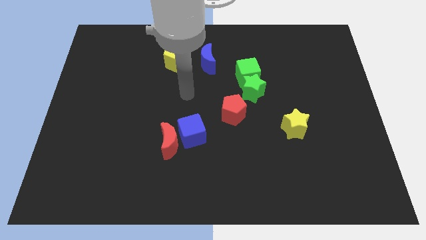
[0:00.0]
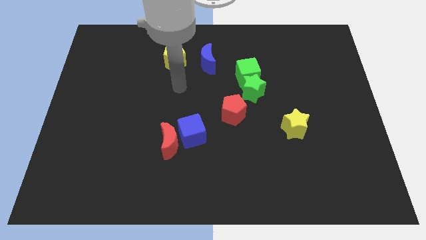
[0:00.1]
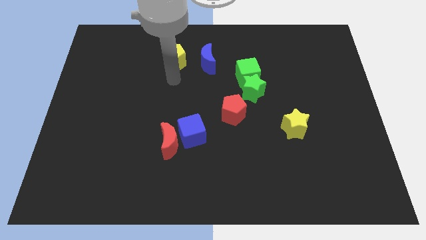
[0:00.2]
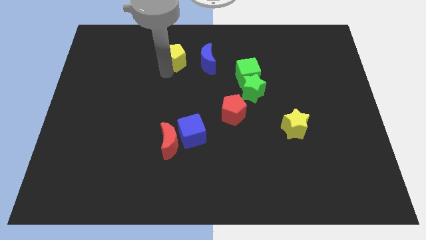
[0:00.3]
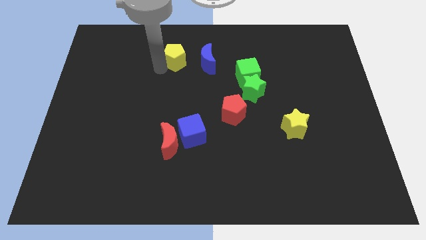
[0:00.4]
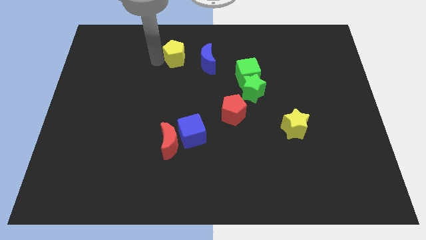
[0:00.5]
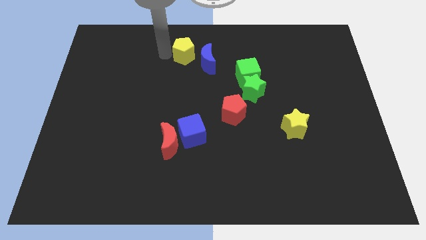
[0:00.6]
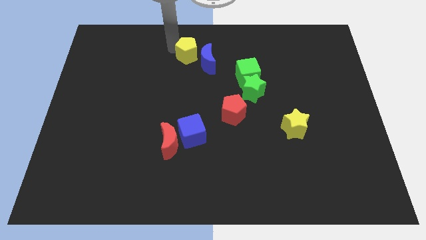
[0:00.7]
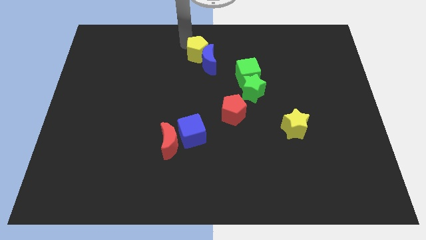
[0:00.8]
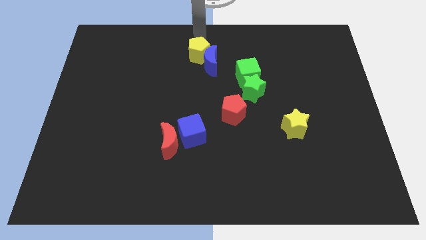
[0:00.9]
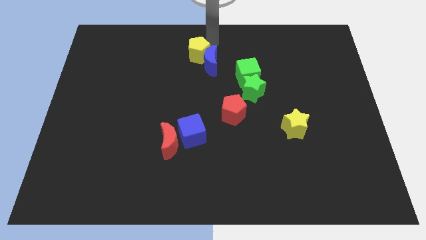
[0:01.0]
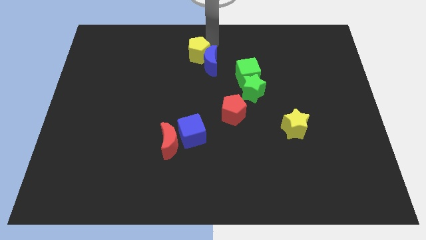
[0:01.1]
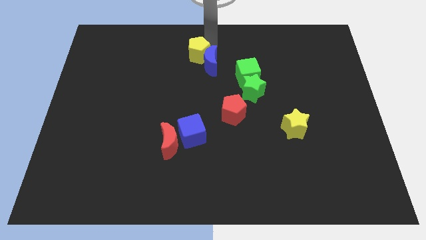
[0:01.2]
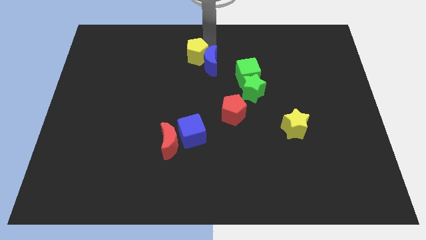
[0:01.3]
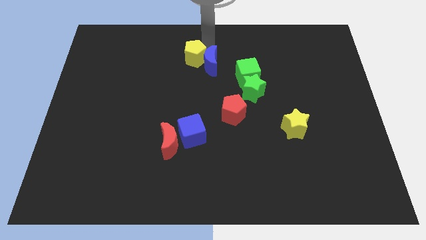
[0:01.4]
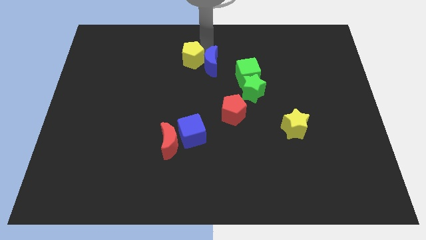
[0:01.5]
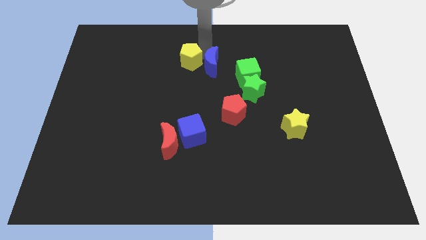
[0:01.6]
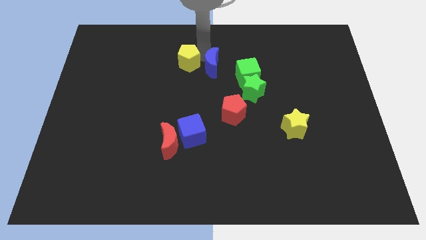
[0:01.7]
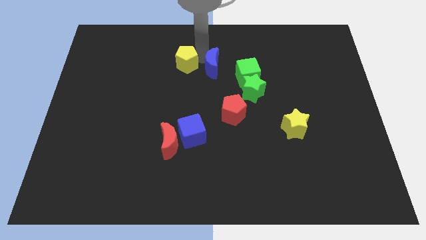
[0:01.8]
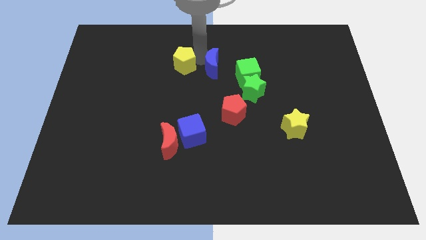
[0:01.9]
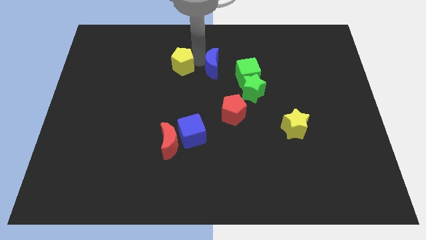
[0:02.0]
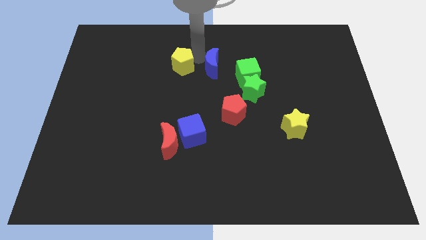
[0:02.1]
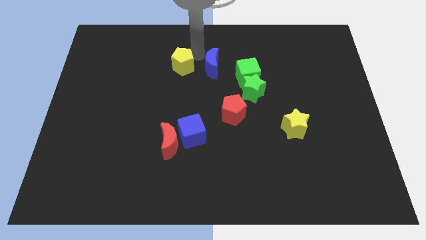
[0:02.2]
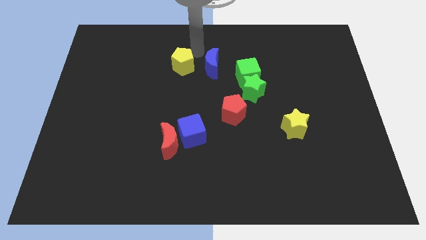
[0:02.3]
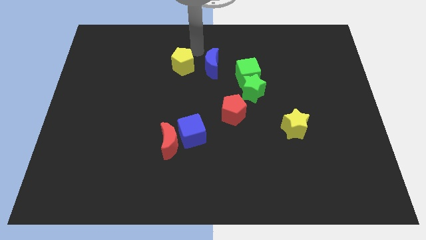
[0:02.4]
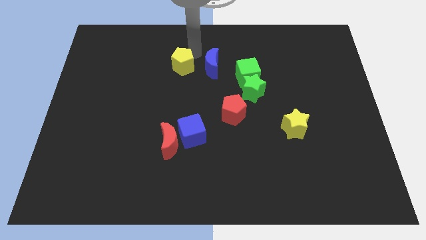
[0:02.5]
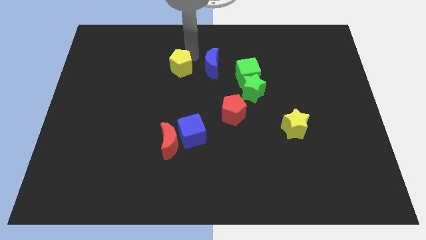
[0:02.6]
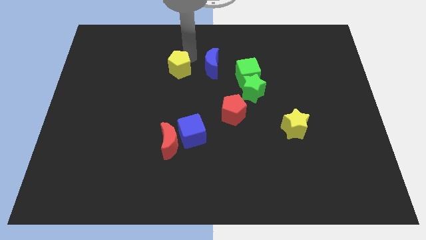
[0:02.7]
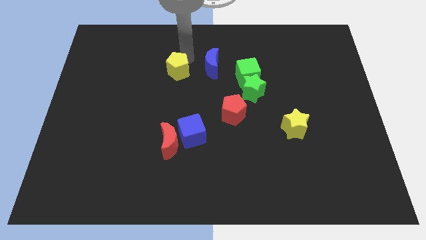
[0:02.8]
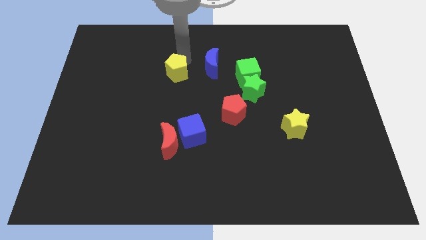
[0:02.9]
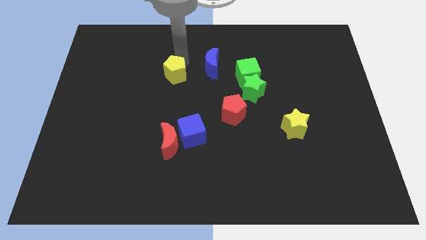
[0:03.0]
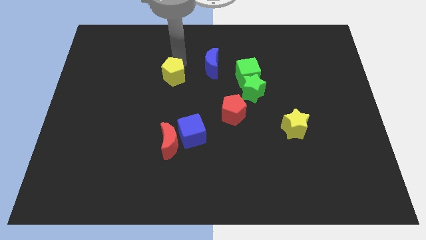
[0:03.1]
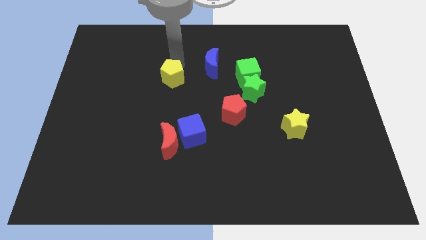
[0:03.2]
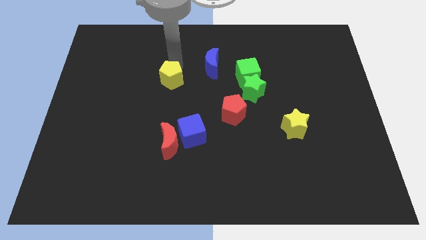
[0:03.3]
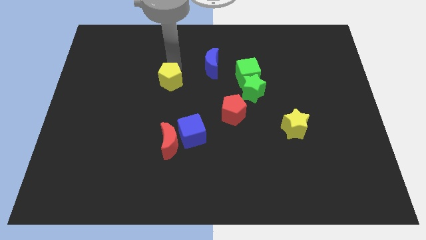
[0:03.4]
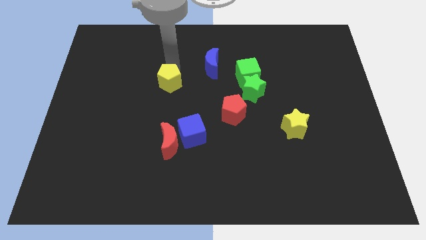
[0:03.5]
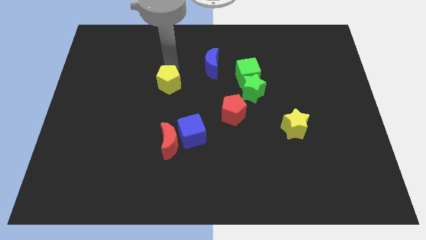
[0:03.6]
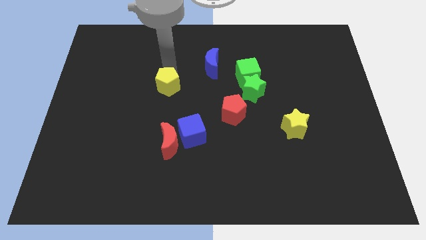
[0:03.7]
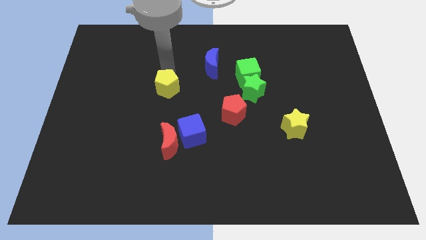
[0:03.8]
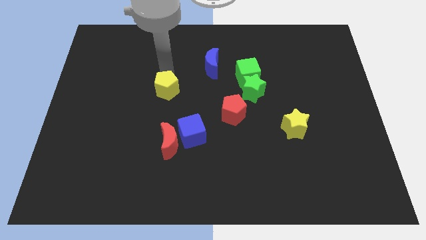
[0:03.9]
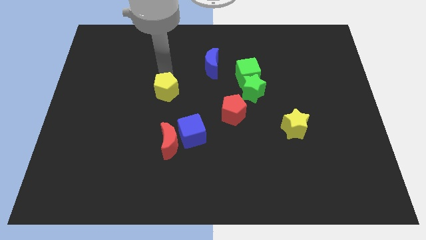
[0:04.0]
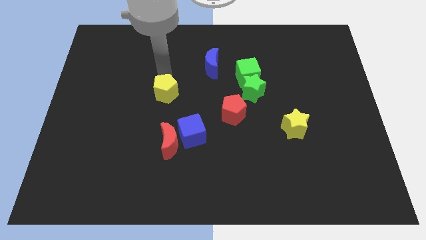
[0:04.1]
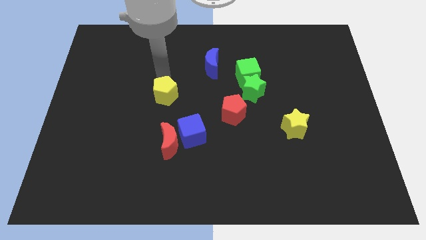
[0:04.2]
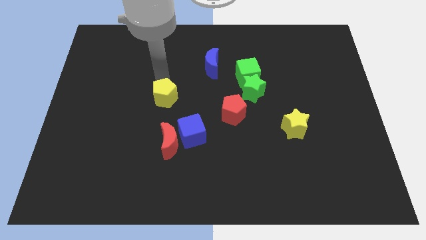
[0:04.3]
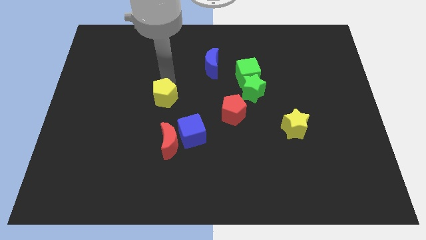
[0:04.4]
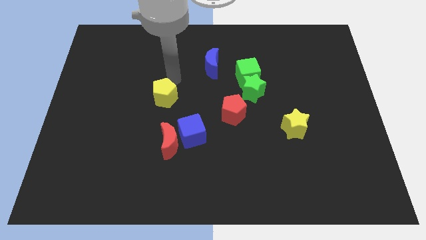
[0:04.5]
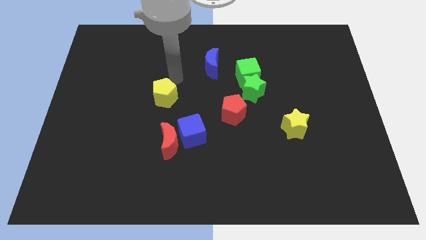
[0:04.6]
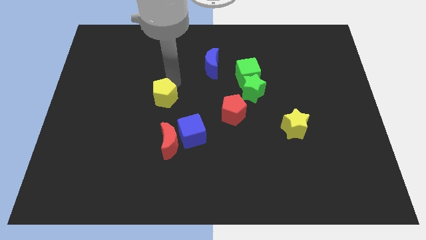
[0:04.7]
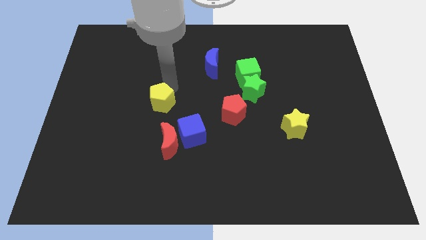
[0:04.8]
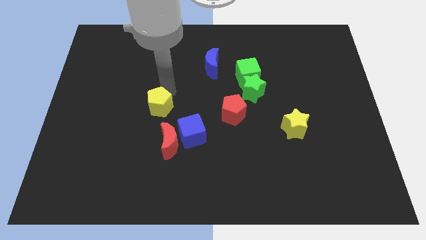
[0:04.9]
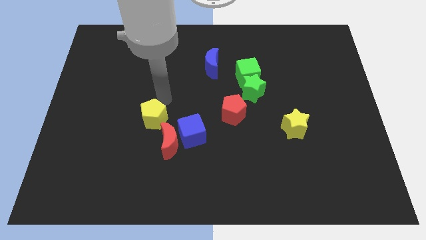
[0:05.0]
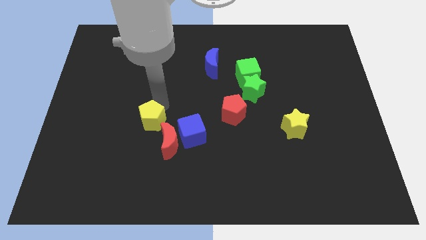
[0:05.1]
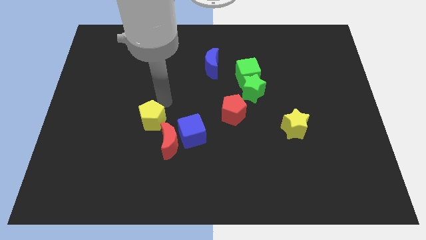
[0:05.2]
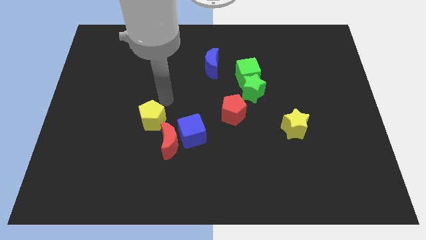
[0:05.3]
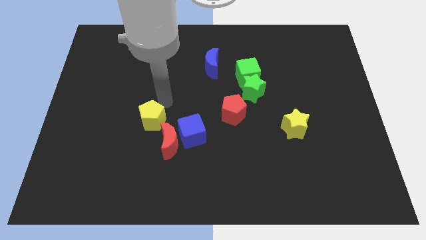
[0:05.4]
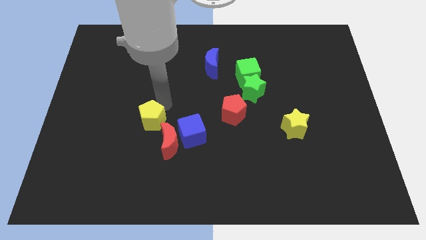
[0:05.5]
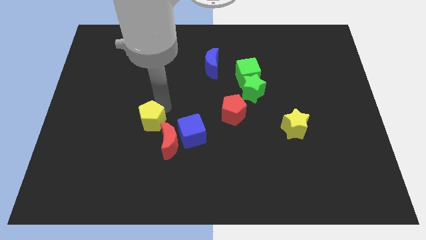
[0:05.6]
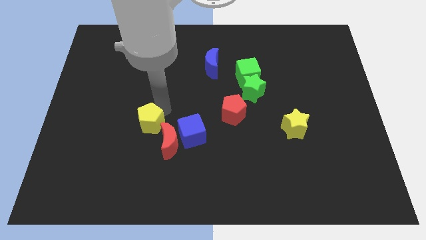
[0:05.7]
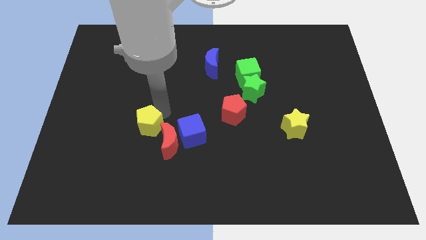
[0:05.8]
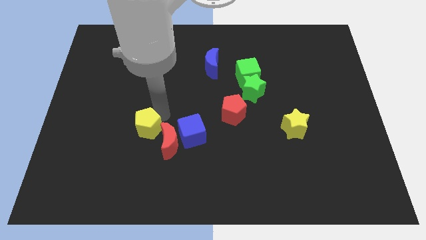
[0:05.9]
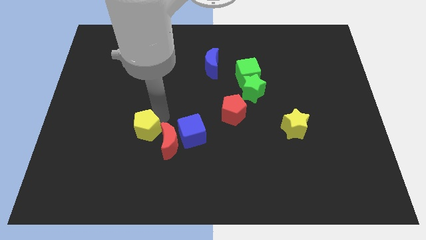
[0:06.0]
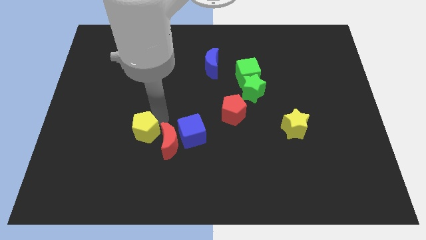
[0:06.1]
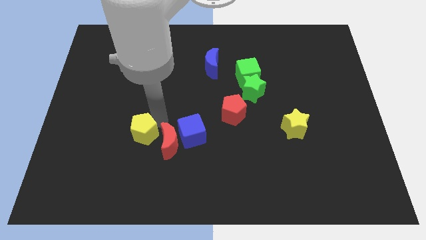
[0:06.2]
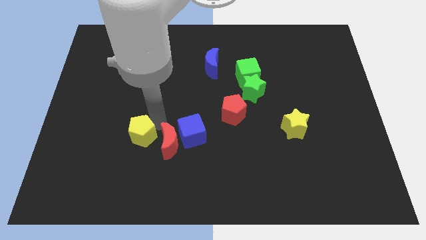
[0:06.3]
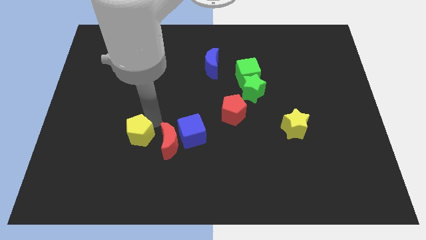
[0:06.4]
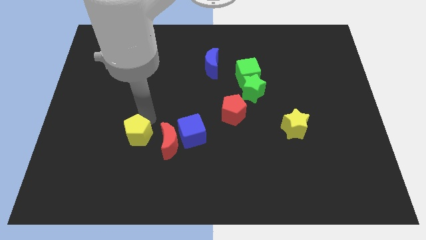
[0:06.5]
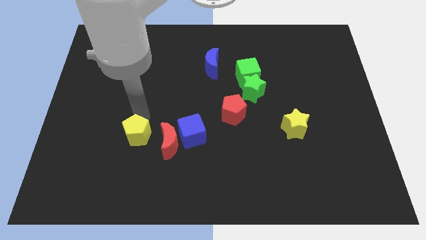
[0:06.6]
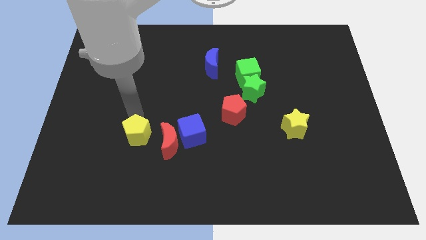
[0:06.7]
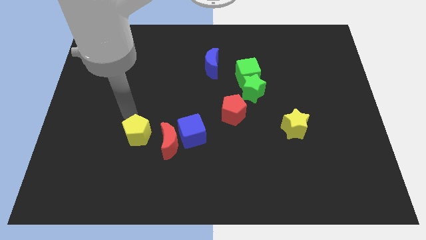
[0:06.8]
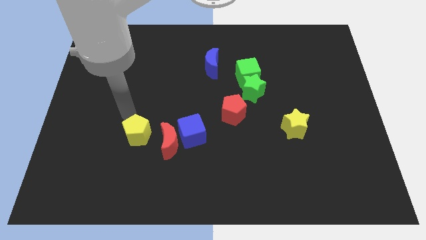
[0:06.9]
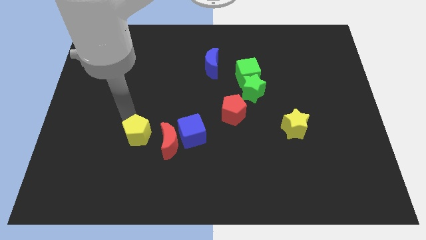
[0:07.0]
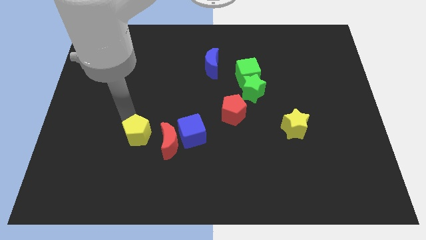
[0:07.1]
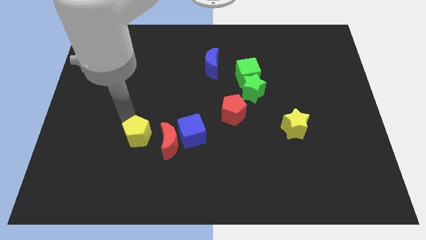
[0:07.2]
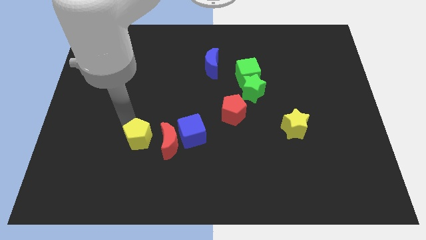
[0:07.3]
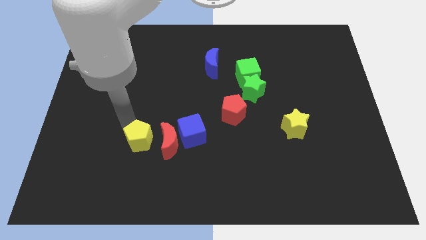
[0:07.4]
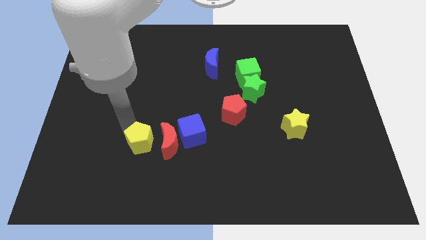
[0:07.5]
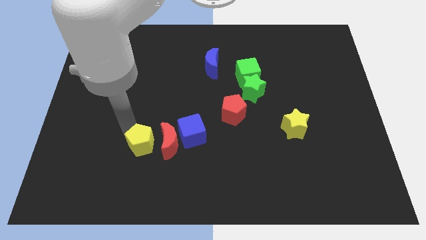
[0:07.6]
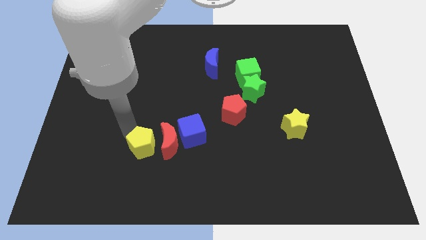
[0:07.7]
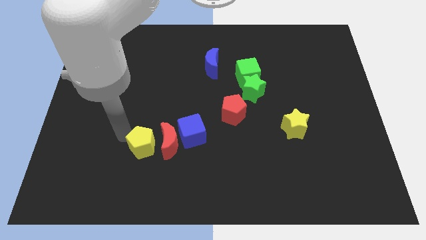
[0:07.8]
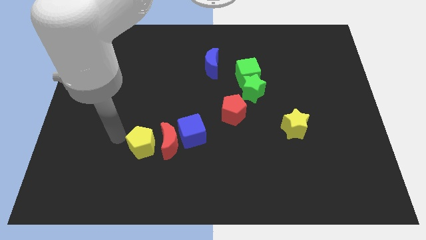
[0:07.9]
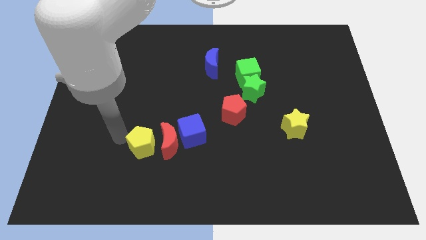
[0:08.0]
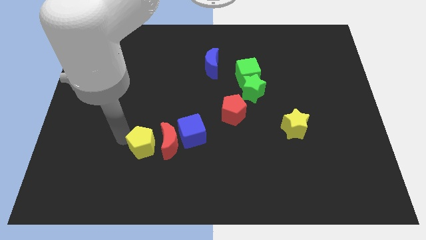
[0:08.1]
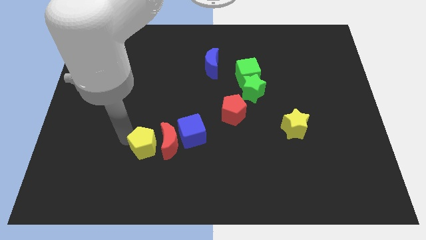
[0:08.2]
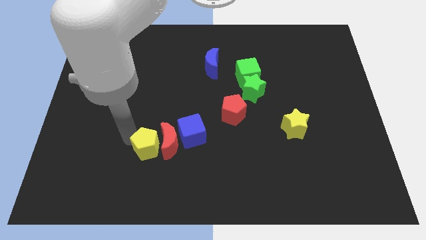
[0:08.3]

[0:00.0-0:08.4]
put the yellow pentagon to the bottom left side of the blue cube
